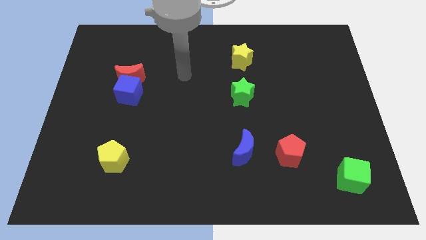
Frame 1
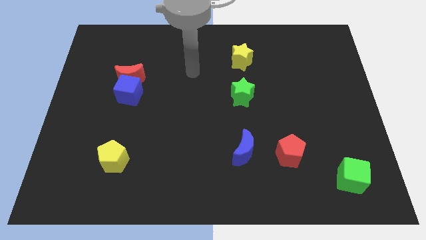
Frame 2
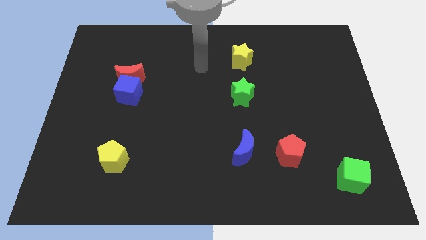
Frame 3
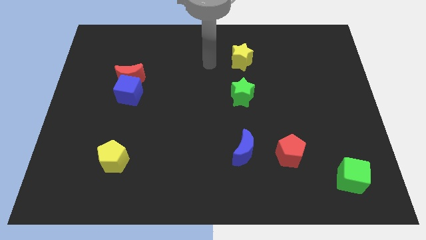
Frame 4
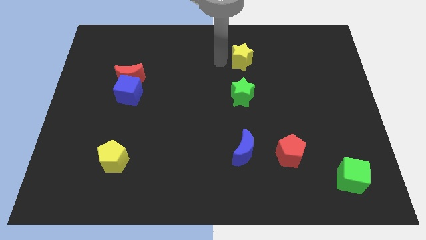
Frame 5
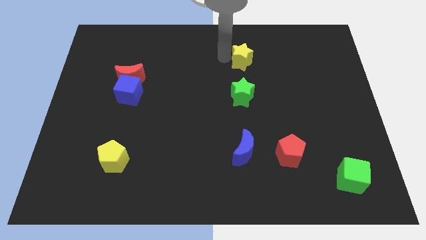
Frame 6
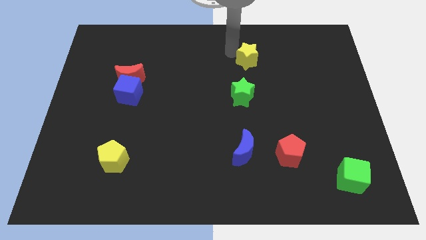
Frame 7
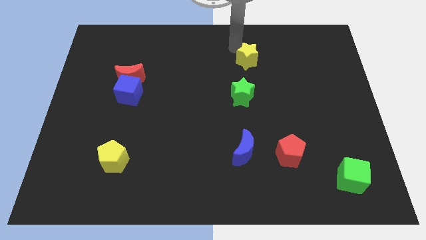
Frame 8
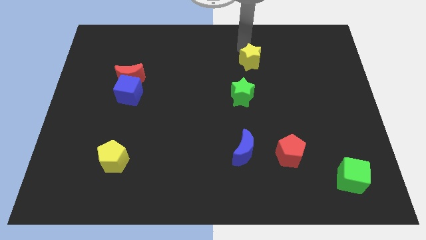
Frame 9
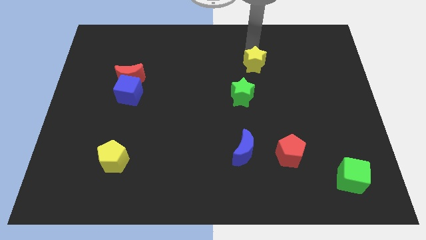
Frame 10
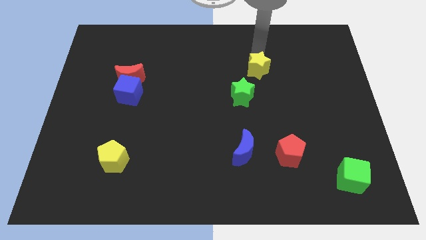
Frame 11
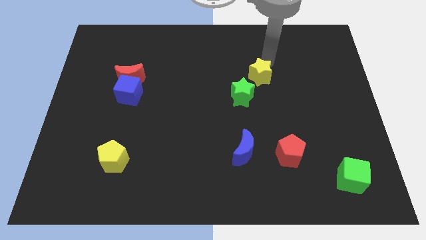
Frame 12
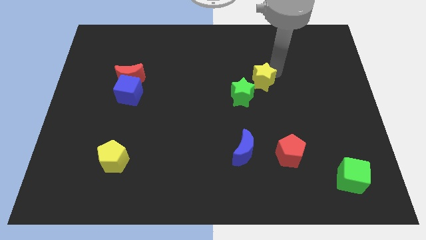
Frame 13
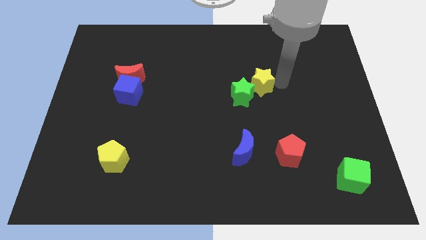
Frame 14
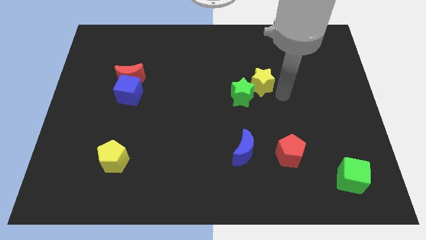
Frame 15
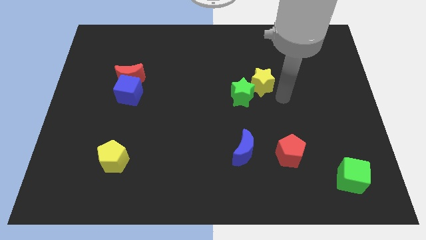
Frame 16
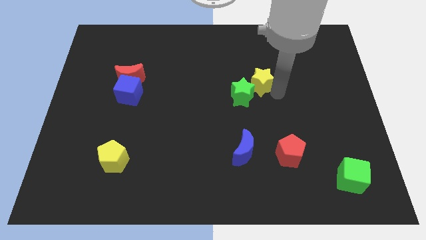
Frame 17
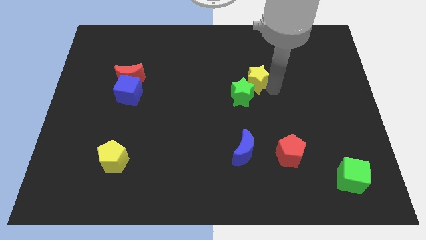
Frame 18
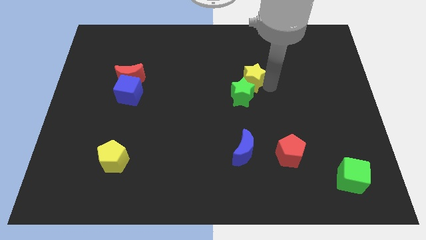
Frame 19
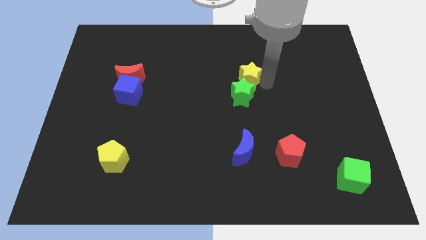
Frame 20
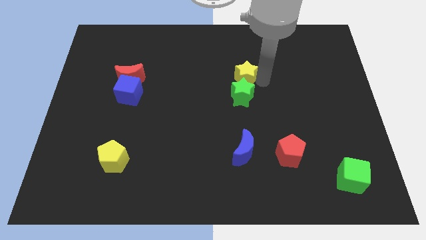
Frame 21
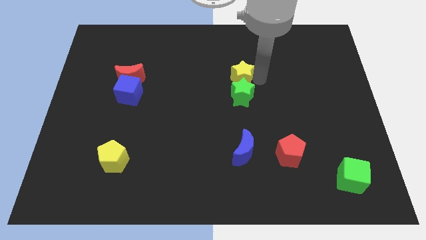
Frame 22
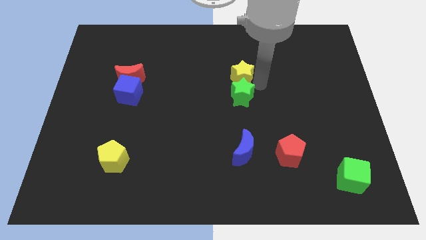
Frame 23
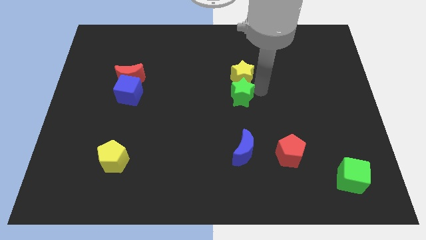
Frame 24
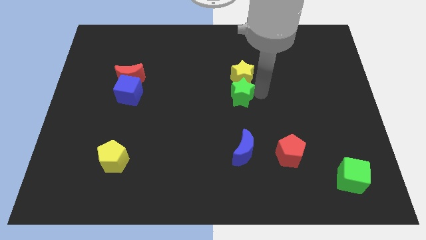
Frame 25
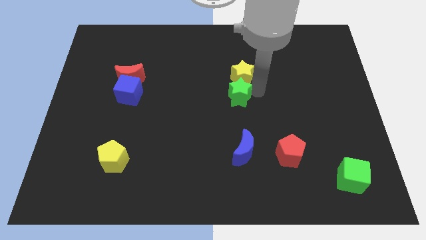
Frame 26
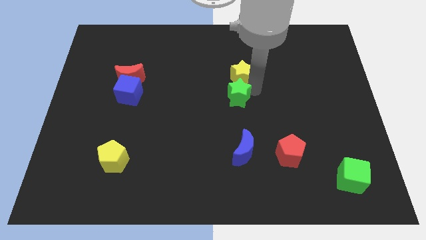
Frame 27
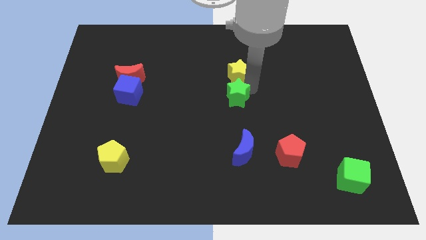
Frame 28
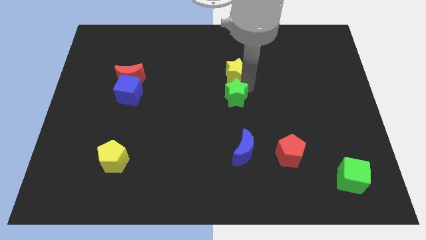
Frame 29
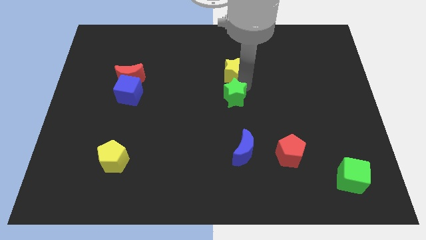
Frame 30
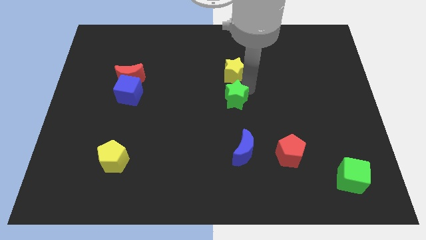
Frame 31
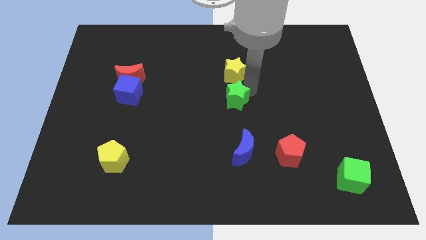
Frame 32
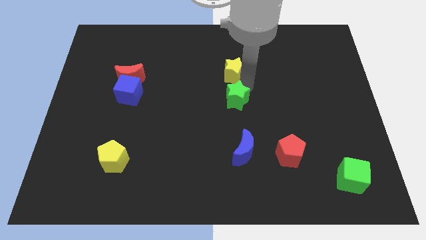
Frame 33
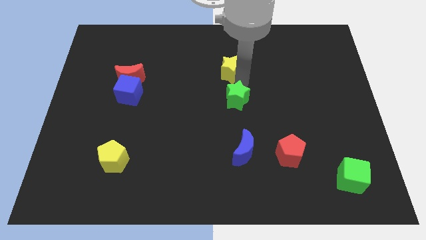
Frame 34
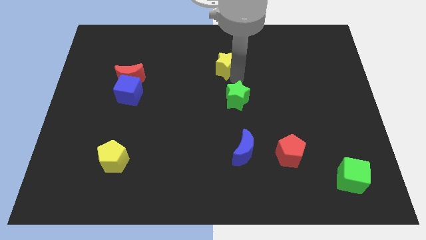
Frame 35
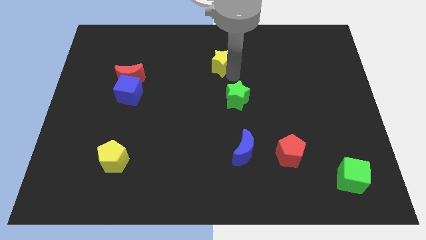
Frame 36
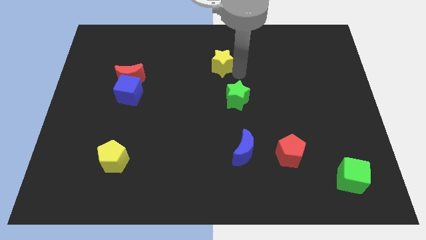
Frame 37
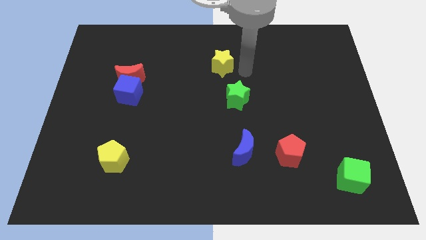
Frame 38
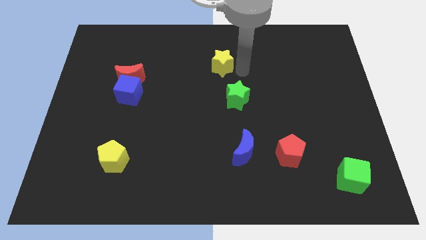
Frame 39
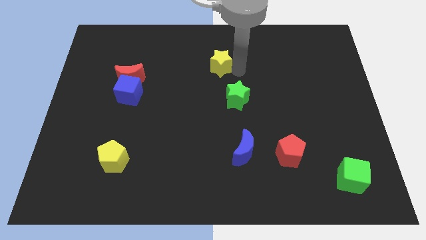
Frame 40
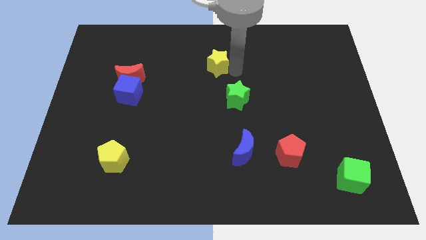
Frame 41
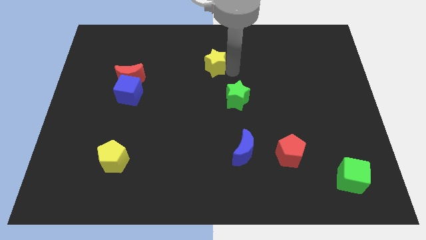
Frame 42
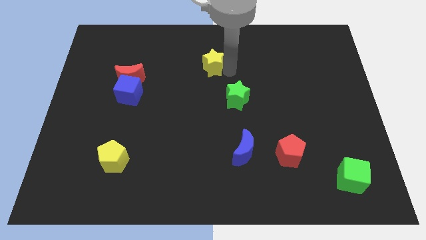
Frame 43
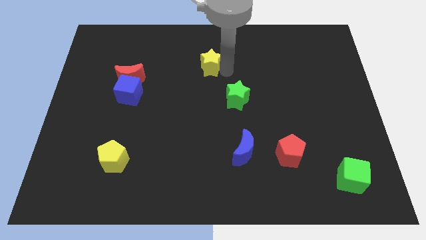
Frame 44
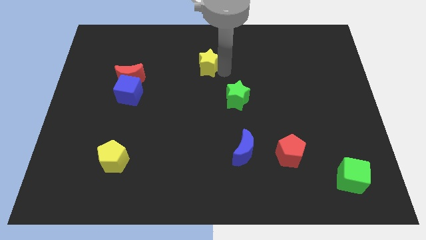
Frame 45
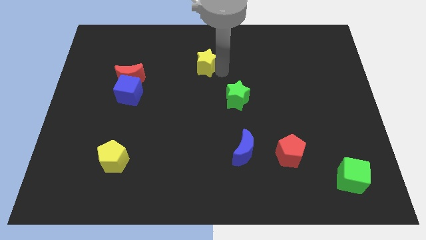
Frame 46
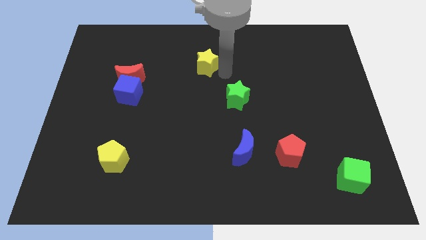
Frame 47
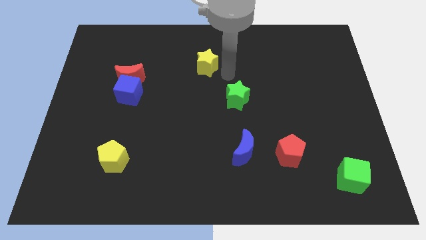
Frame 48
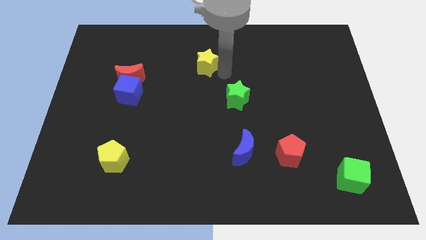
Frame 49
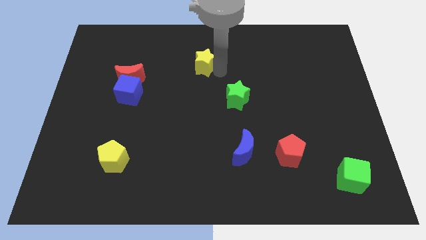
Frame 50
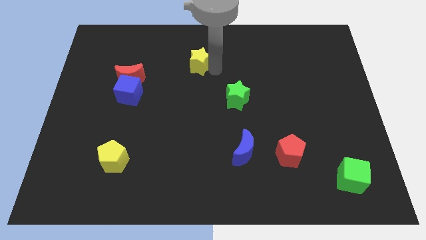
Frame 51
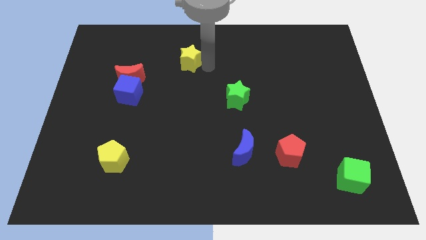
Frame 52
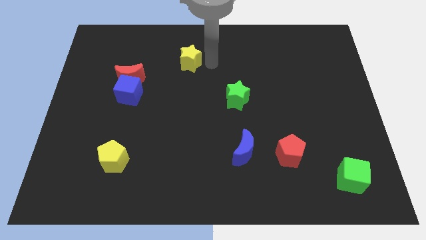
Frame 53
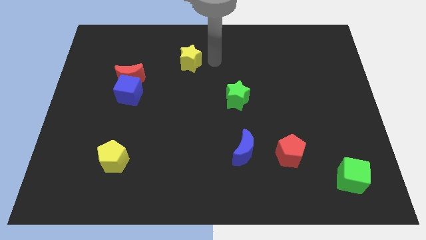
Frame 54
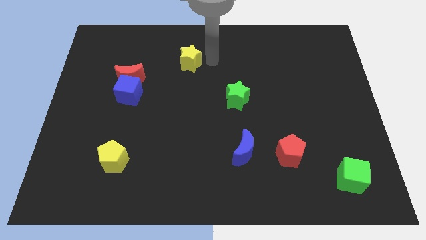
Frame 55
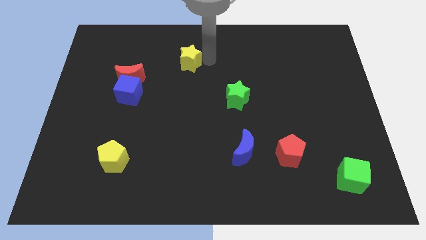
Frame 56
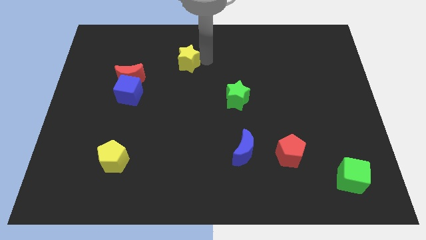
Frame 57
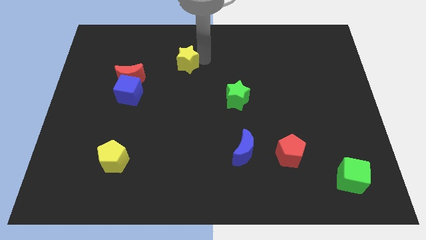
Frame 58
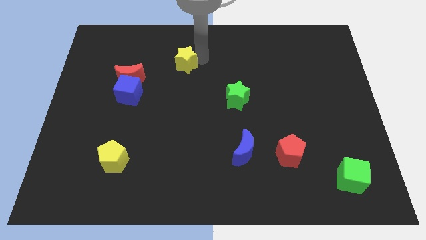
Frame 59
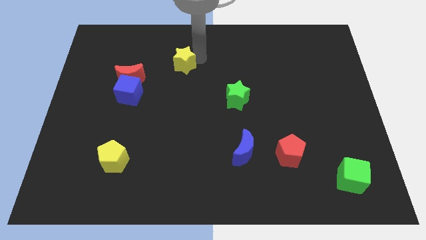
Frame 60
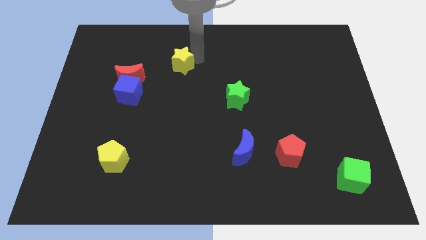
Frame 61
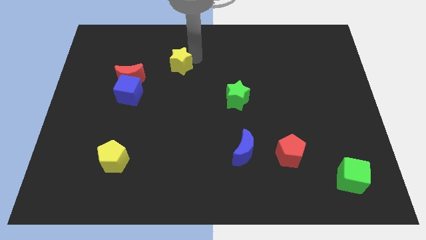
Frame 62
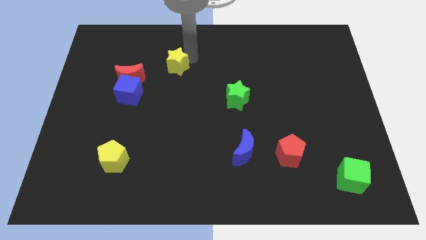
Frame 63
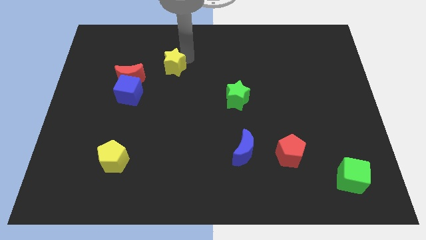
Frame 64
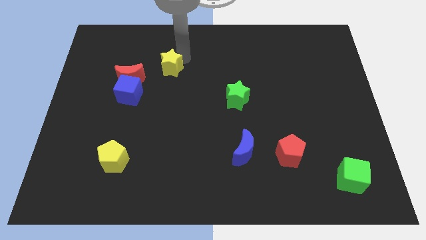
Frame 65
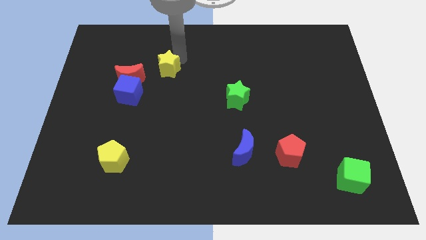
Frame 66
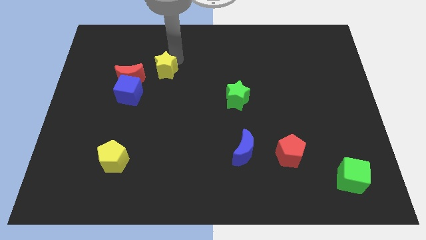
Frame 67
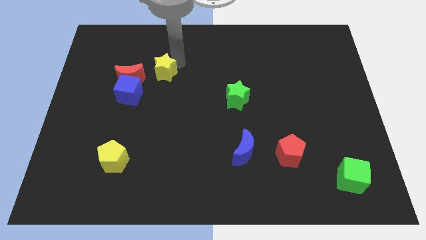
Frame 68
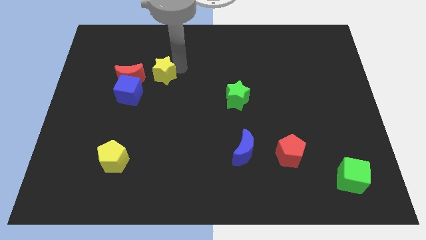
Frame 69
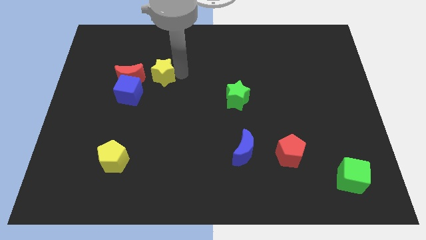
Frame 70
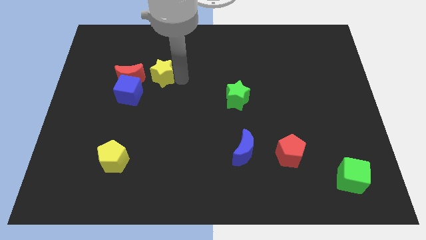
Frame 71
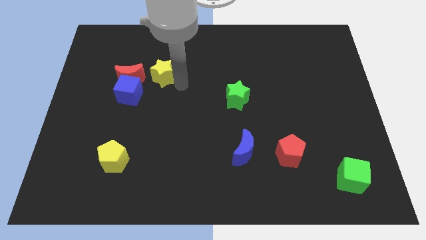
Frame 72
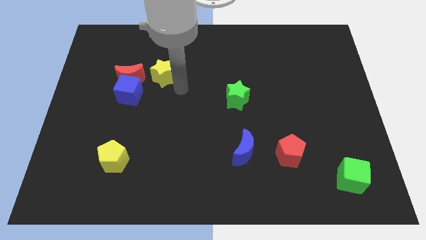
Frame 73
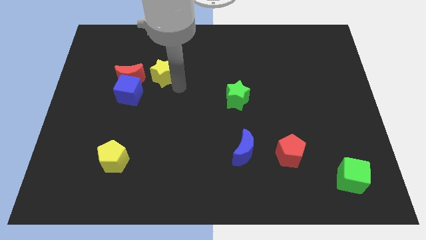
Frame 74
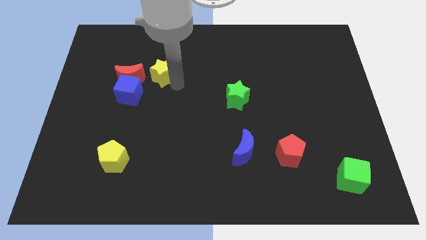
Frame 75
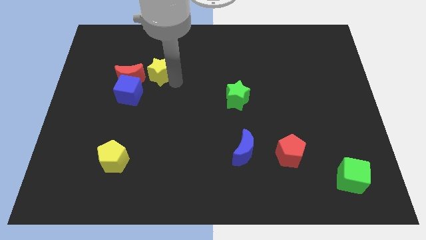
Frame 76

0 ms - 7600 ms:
move the yellow star to the left

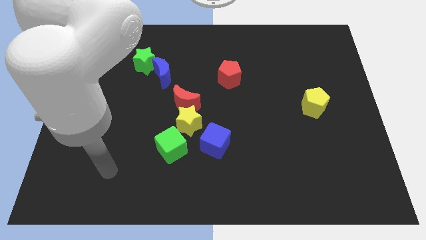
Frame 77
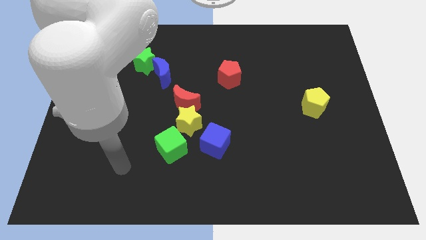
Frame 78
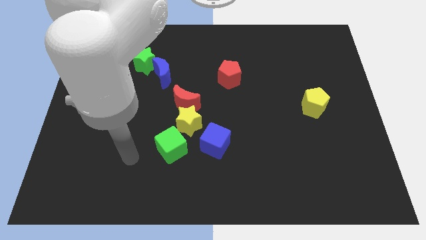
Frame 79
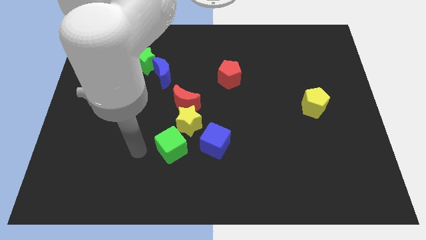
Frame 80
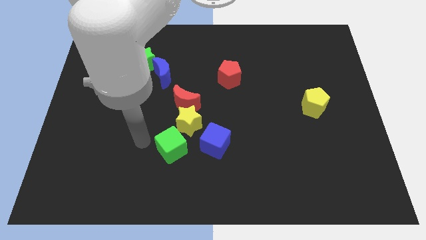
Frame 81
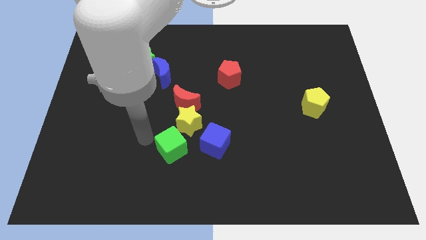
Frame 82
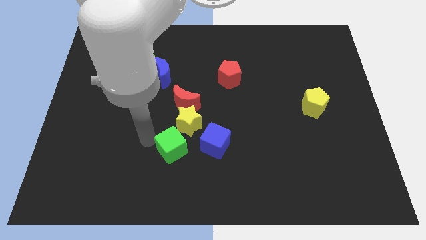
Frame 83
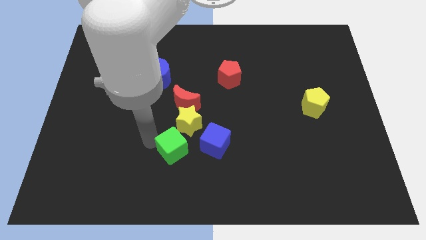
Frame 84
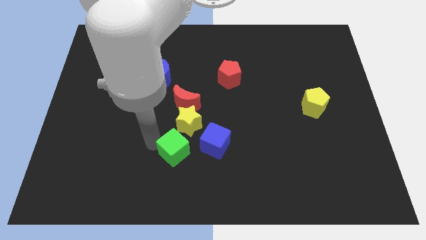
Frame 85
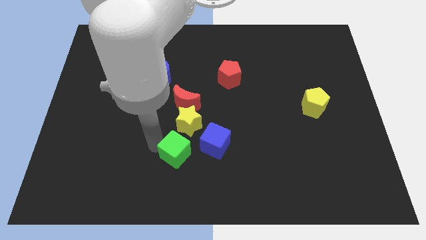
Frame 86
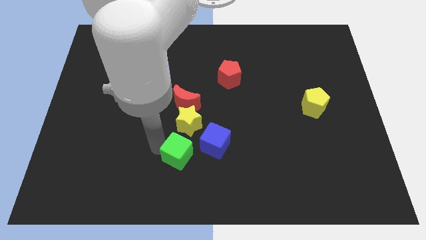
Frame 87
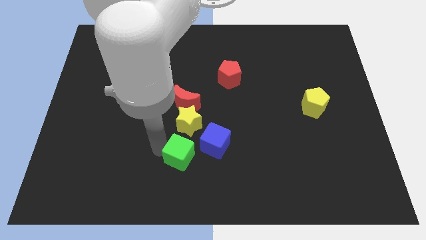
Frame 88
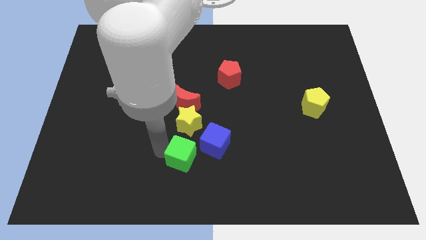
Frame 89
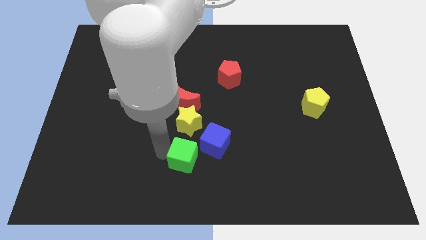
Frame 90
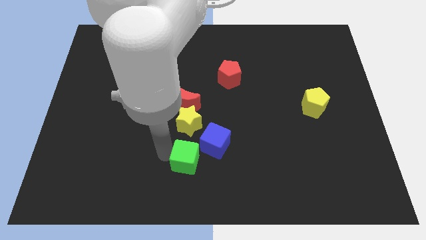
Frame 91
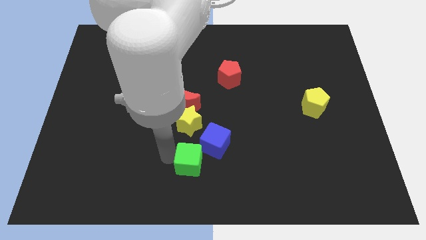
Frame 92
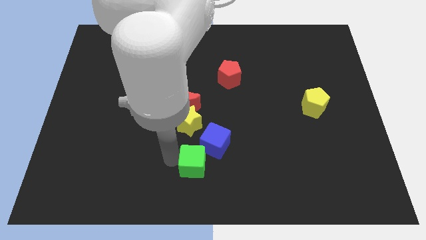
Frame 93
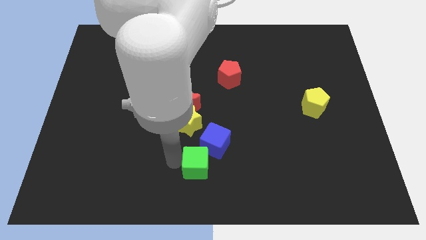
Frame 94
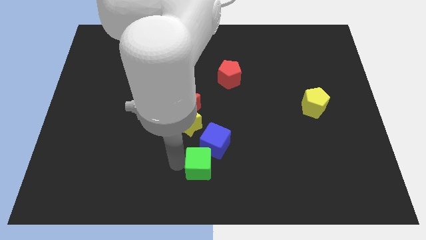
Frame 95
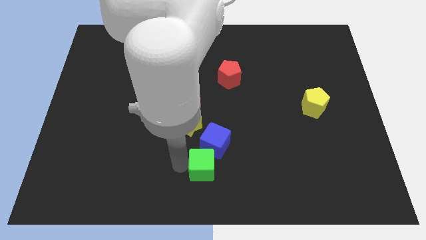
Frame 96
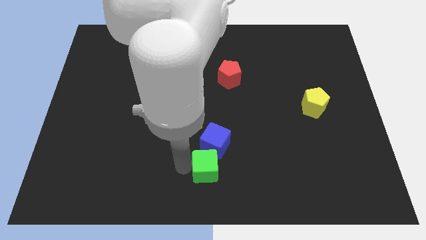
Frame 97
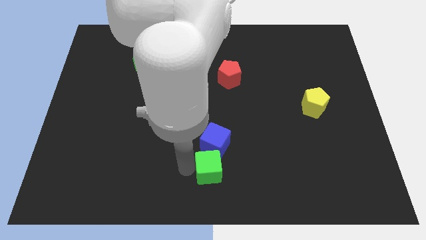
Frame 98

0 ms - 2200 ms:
move the green cube a little to the right
